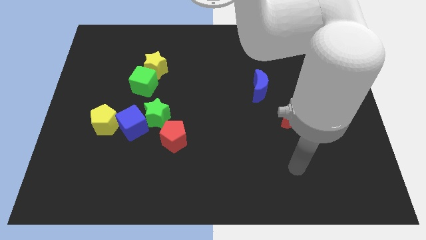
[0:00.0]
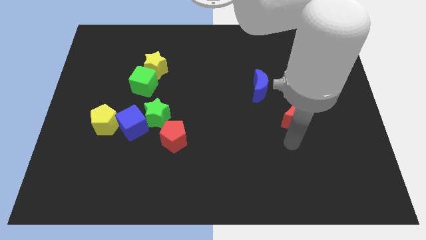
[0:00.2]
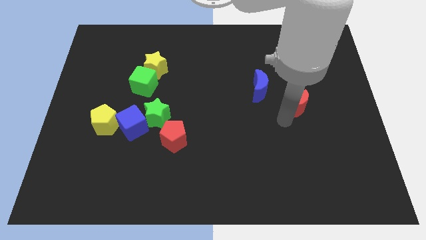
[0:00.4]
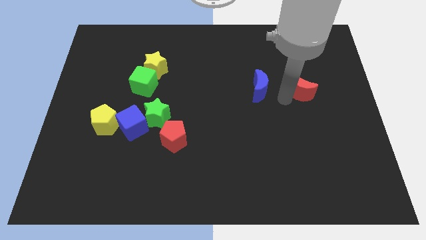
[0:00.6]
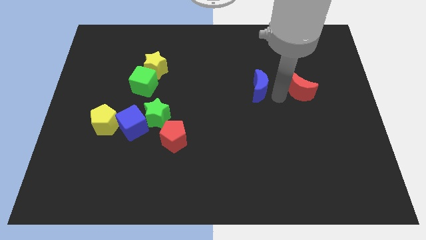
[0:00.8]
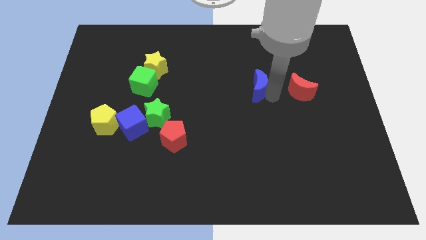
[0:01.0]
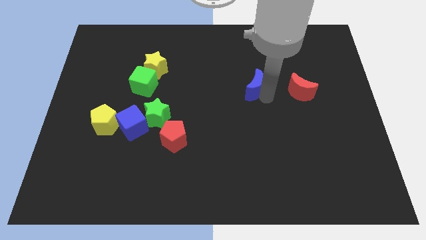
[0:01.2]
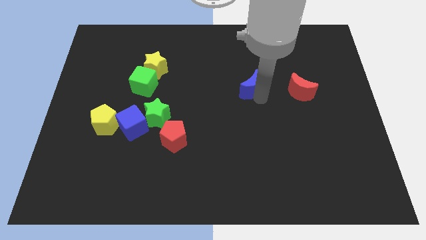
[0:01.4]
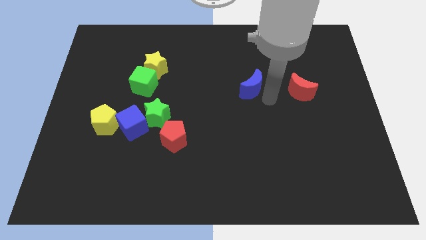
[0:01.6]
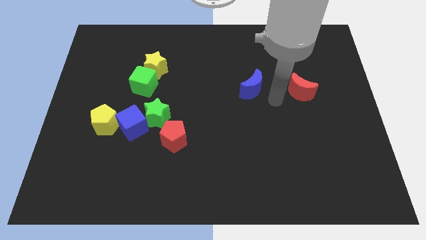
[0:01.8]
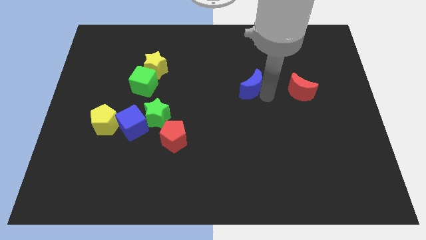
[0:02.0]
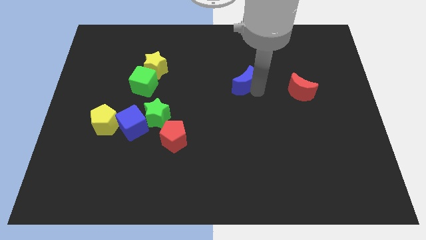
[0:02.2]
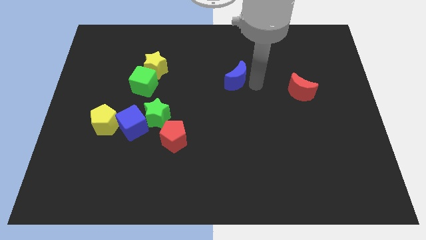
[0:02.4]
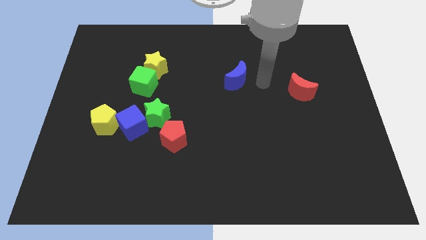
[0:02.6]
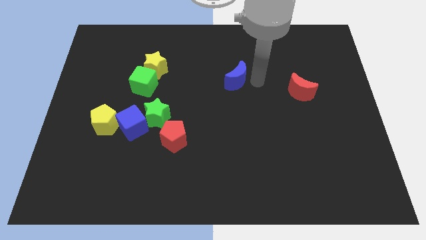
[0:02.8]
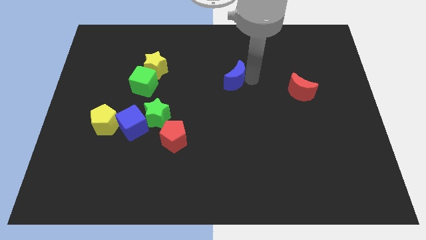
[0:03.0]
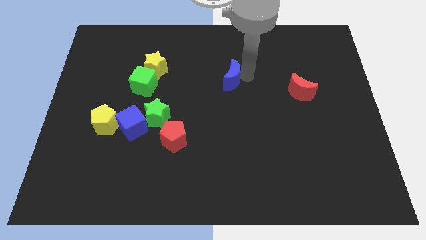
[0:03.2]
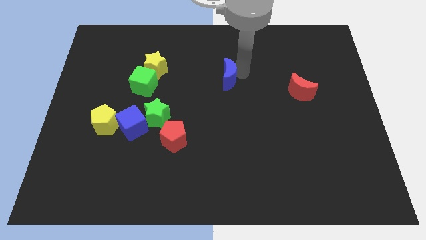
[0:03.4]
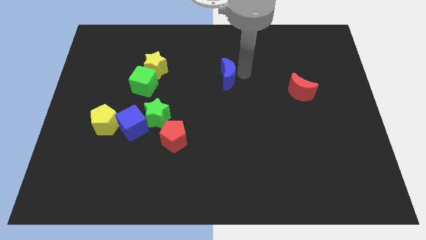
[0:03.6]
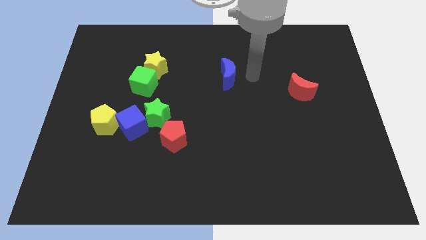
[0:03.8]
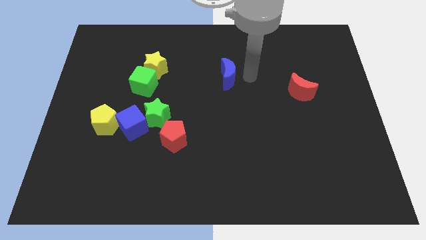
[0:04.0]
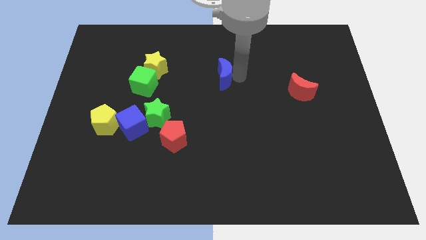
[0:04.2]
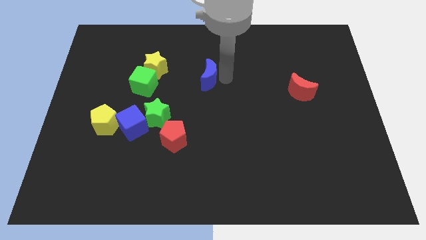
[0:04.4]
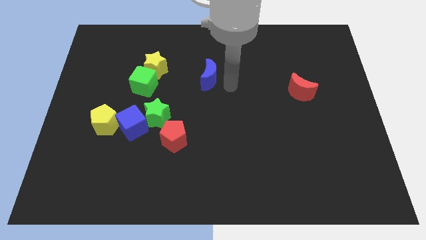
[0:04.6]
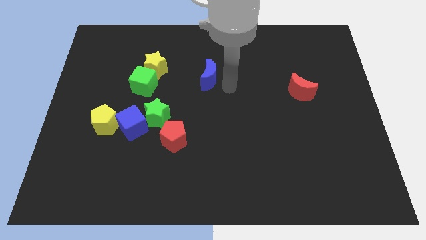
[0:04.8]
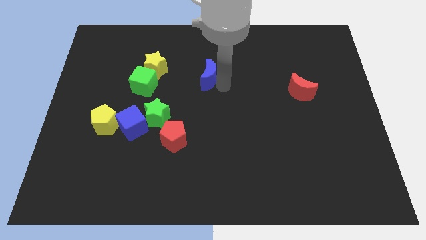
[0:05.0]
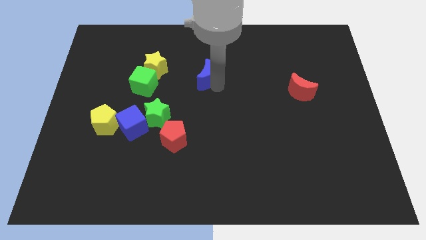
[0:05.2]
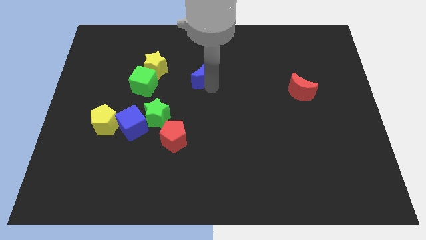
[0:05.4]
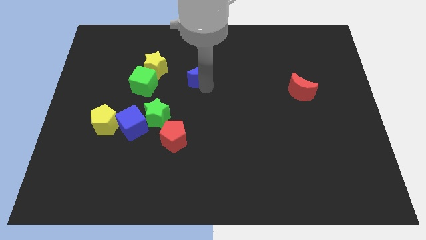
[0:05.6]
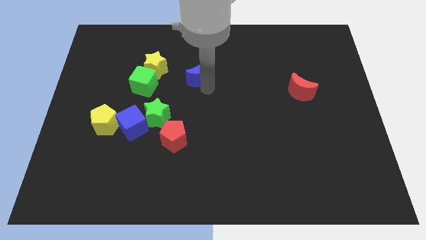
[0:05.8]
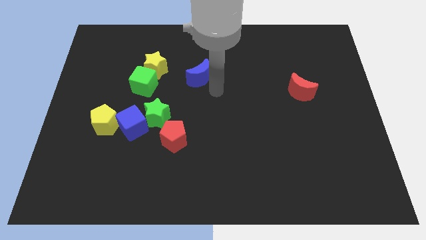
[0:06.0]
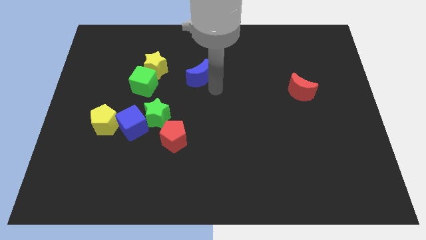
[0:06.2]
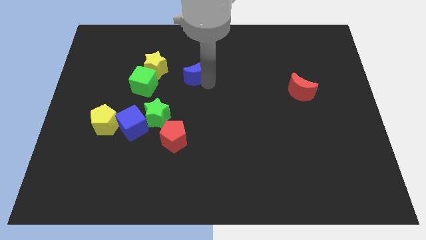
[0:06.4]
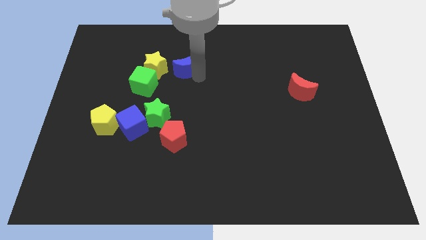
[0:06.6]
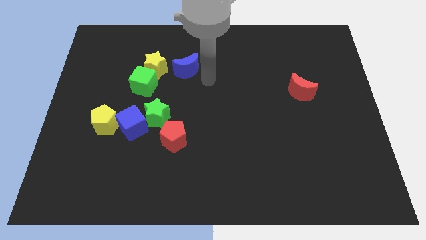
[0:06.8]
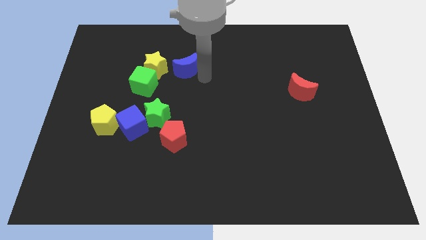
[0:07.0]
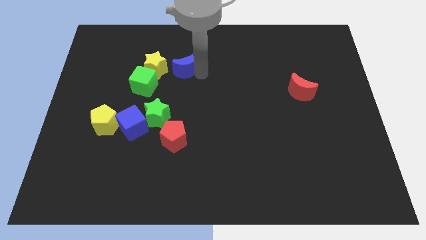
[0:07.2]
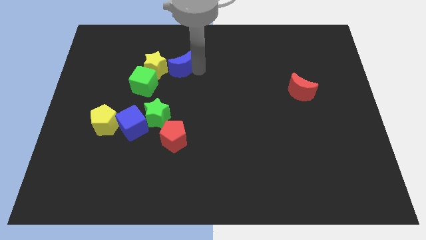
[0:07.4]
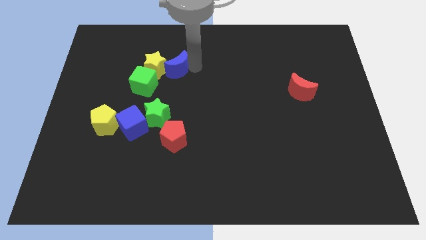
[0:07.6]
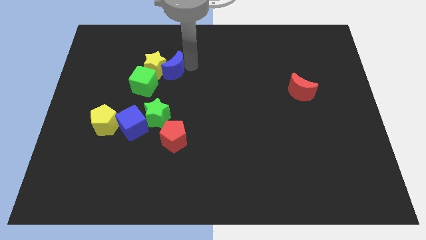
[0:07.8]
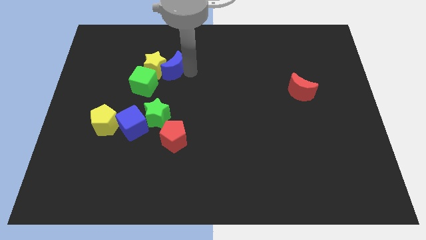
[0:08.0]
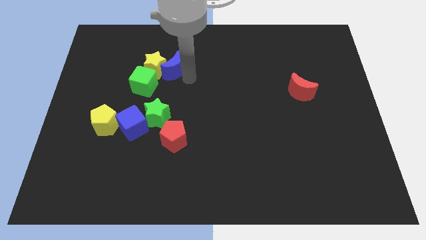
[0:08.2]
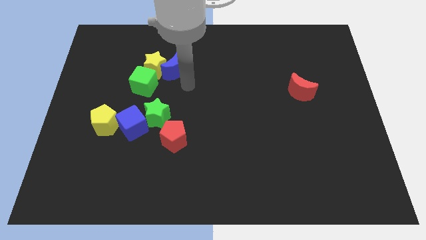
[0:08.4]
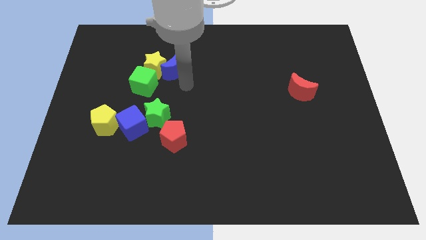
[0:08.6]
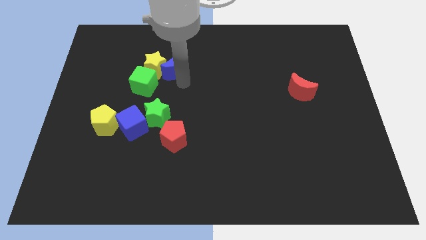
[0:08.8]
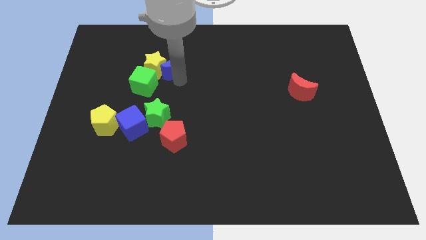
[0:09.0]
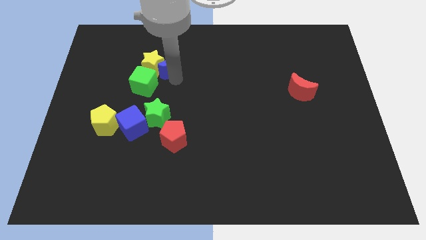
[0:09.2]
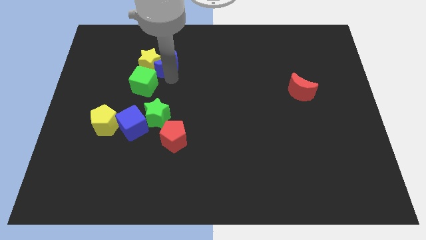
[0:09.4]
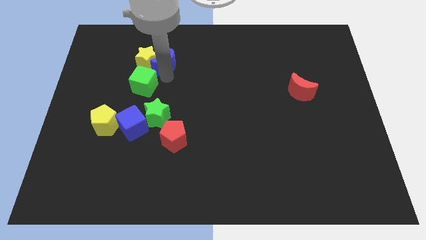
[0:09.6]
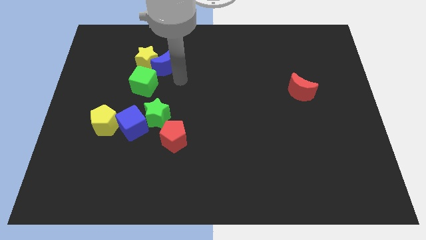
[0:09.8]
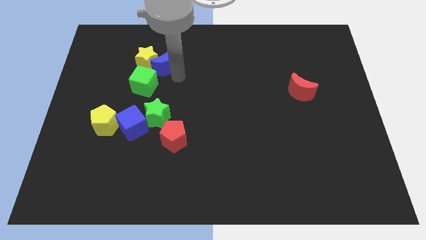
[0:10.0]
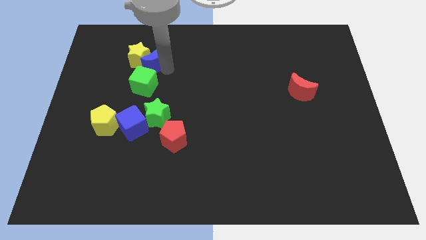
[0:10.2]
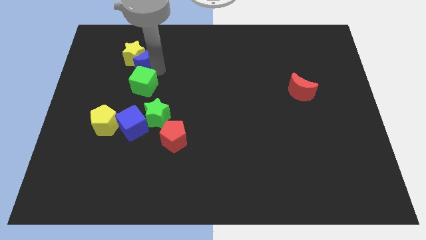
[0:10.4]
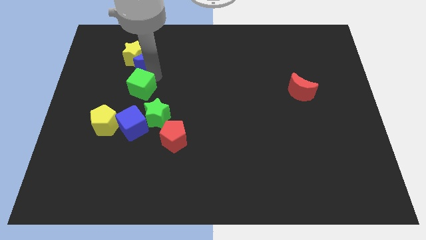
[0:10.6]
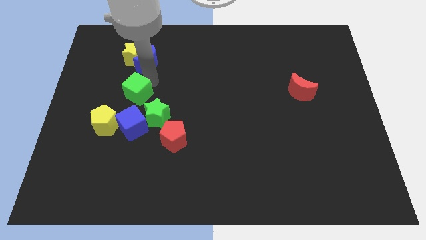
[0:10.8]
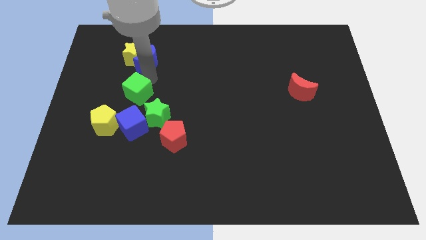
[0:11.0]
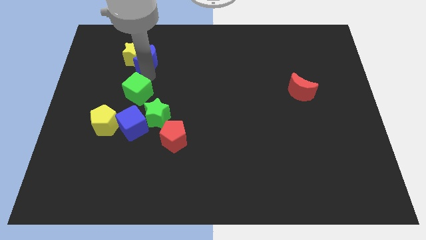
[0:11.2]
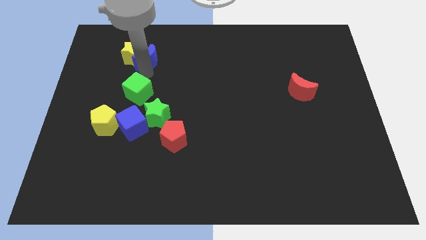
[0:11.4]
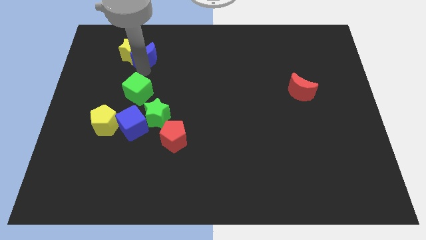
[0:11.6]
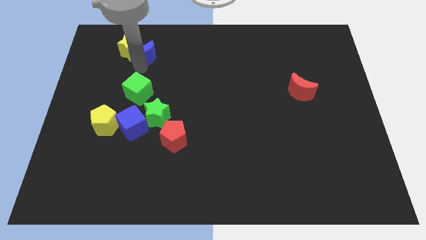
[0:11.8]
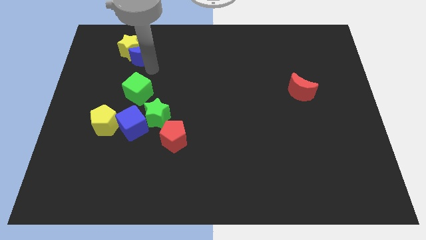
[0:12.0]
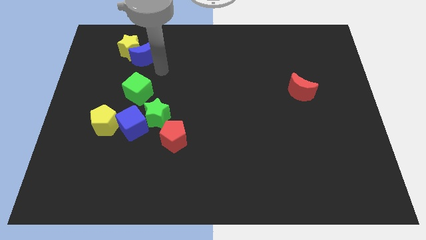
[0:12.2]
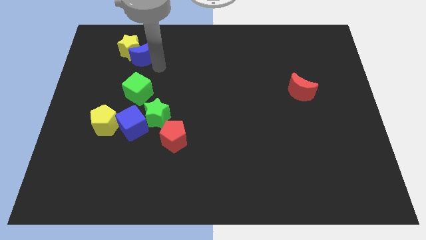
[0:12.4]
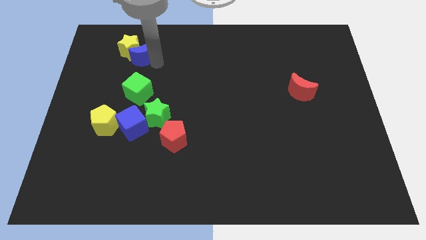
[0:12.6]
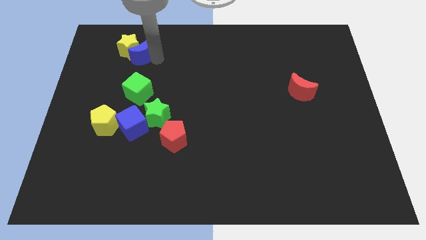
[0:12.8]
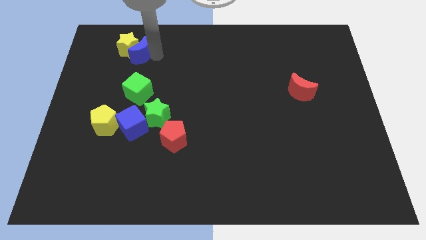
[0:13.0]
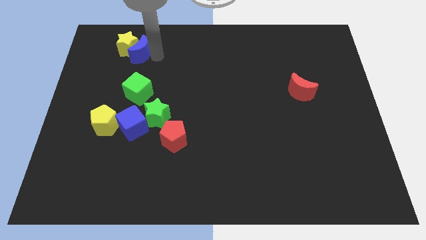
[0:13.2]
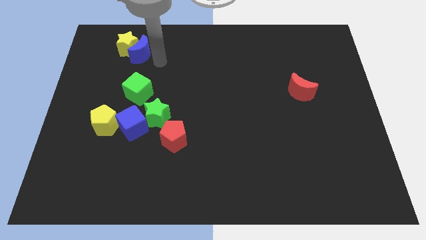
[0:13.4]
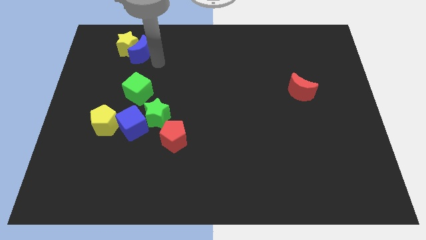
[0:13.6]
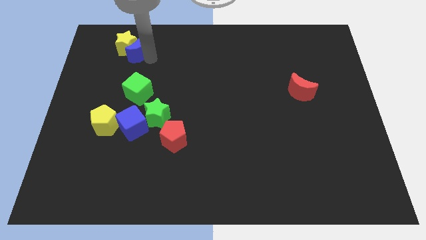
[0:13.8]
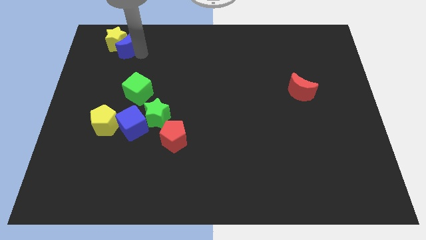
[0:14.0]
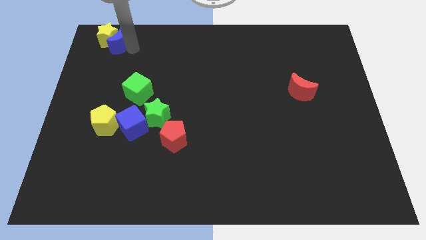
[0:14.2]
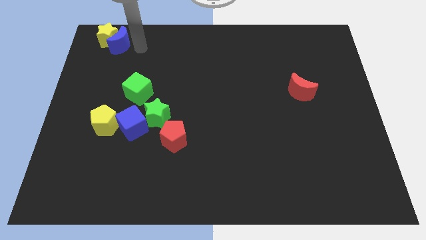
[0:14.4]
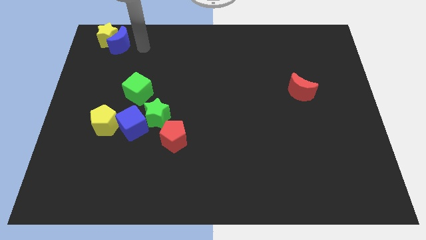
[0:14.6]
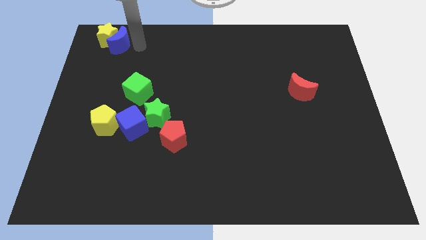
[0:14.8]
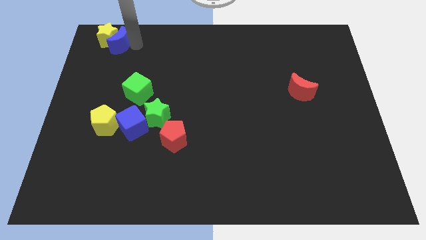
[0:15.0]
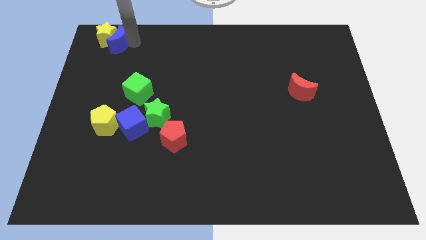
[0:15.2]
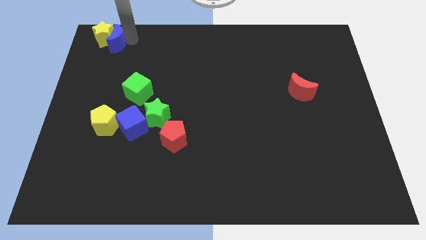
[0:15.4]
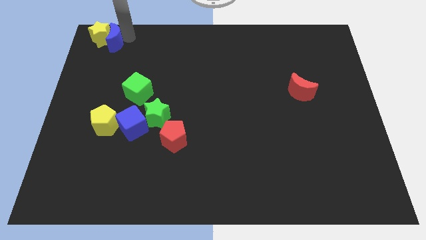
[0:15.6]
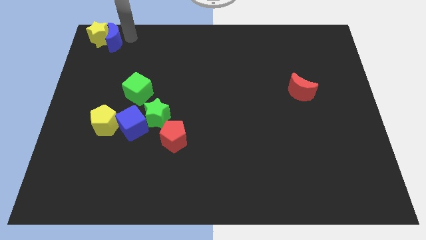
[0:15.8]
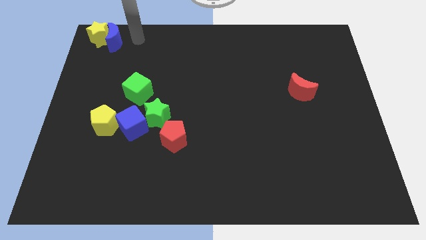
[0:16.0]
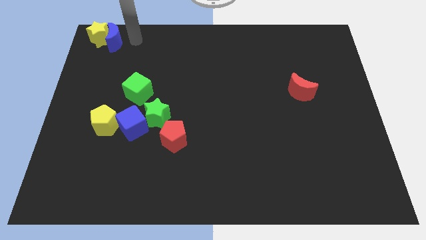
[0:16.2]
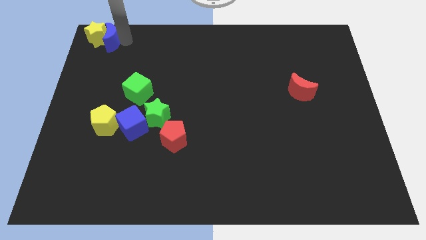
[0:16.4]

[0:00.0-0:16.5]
move the blue moon to the top left corner

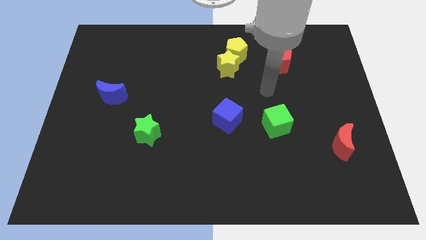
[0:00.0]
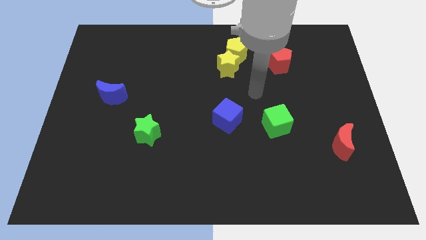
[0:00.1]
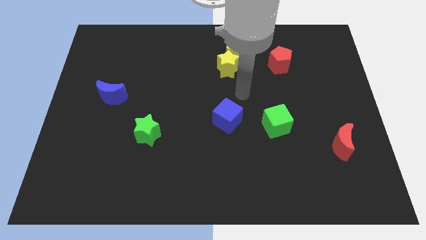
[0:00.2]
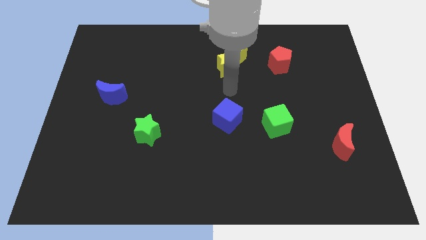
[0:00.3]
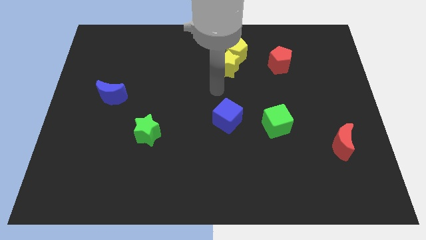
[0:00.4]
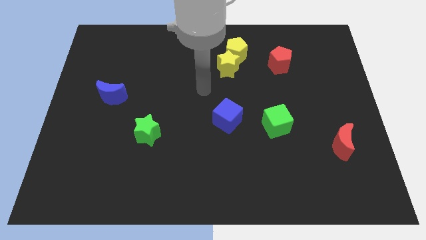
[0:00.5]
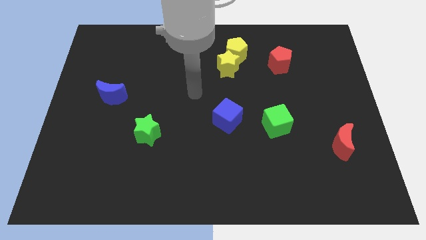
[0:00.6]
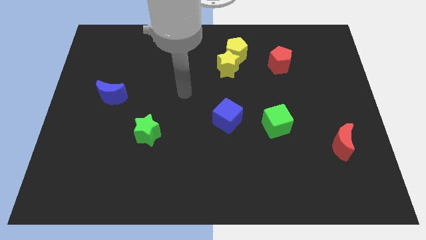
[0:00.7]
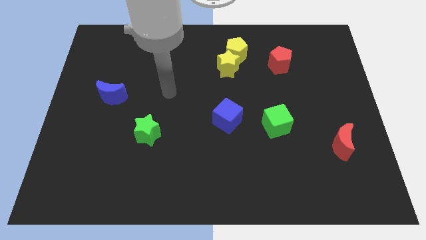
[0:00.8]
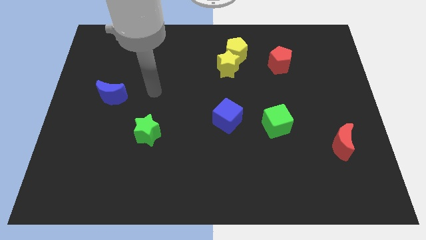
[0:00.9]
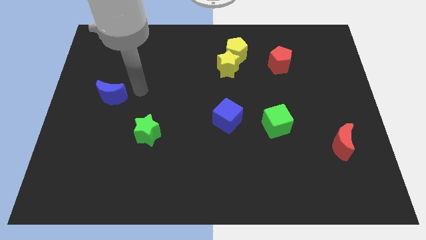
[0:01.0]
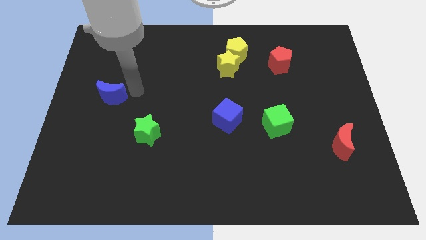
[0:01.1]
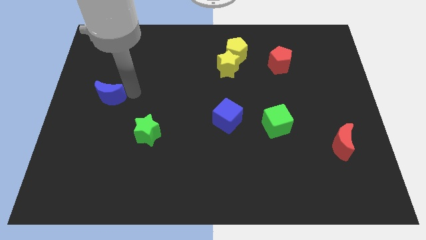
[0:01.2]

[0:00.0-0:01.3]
slide the blue moon to the center left
